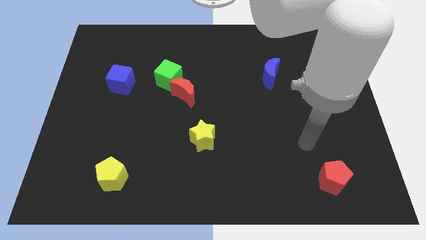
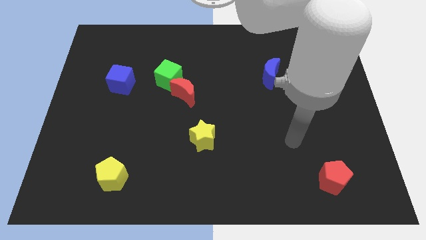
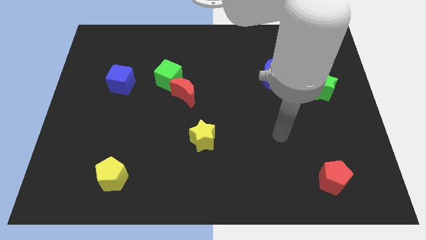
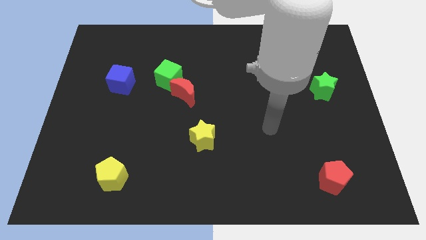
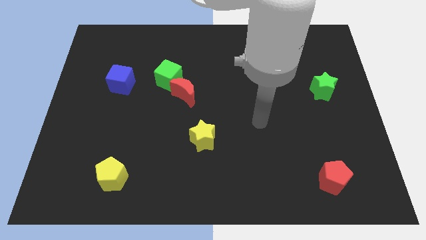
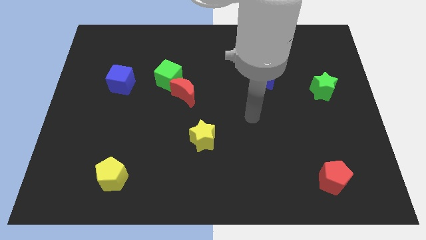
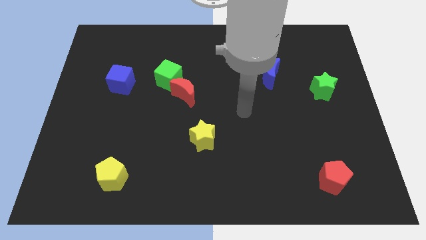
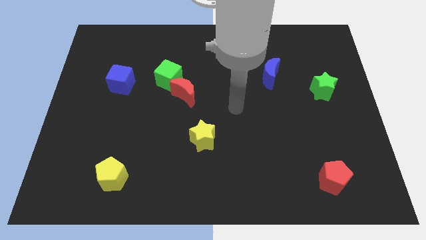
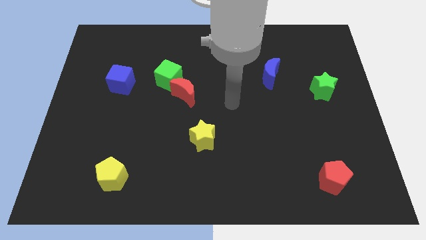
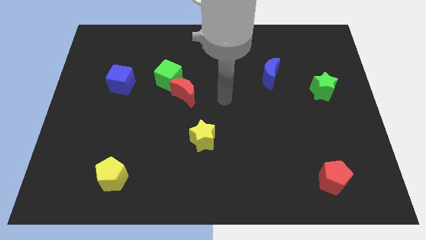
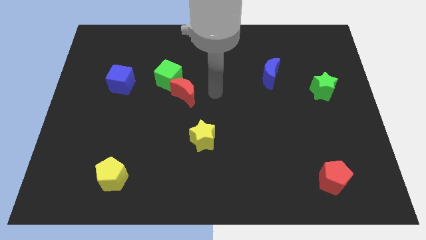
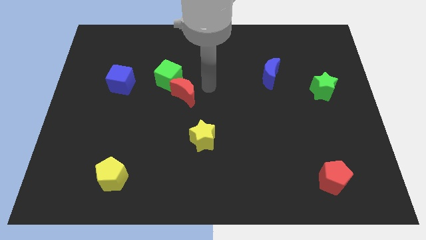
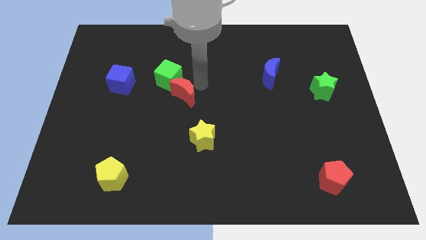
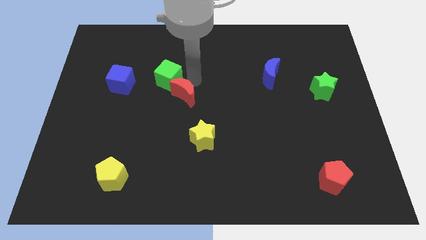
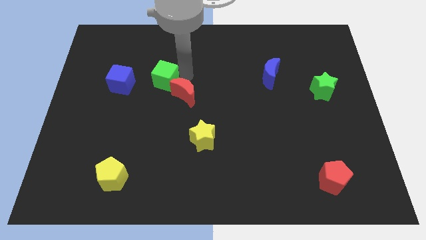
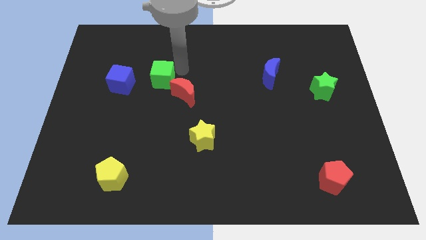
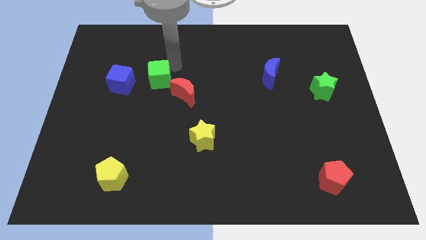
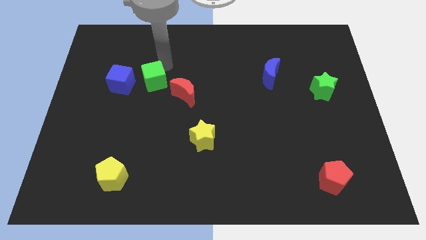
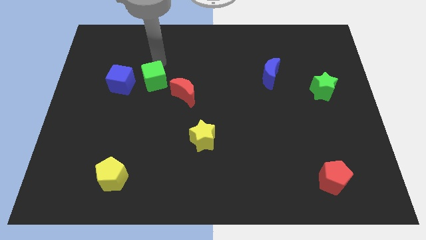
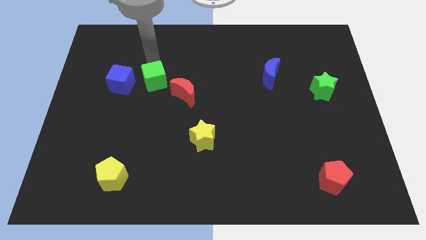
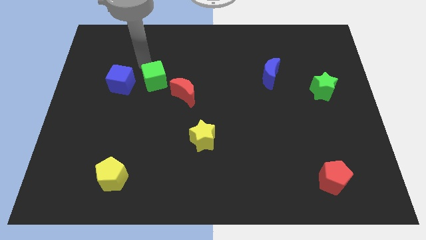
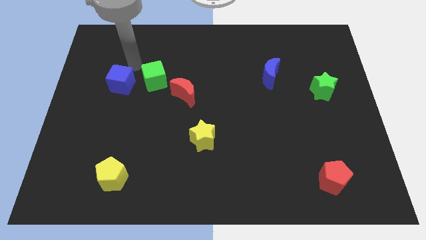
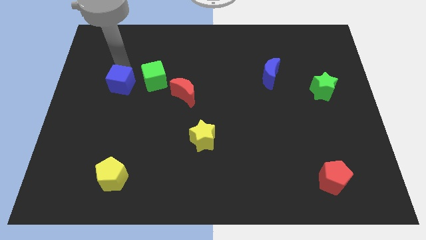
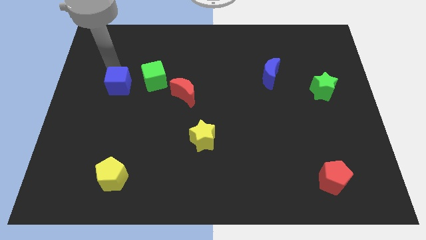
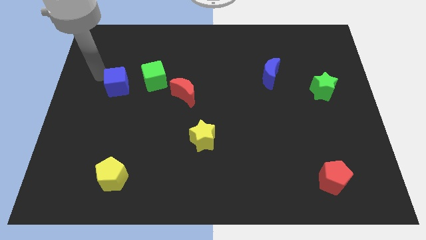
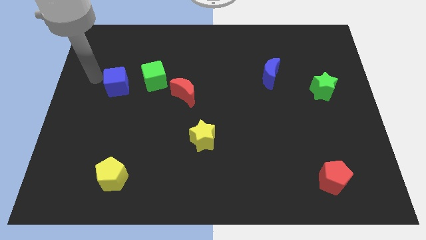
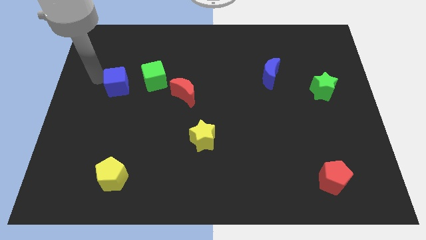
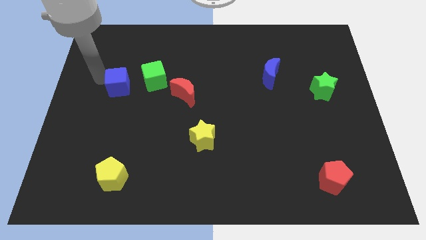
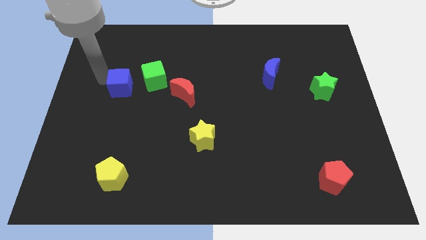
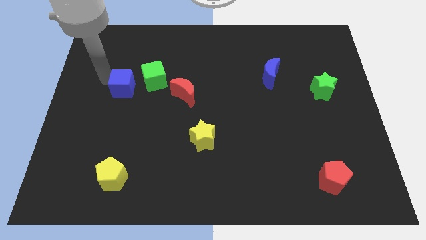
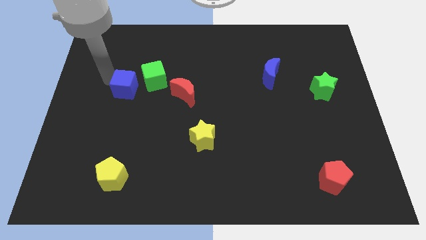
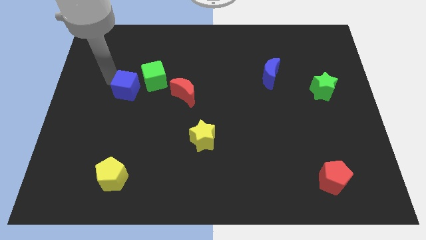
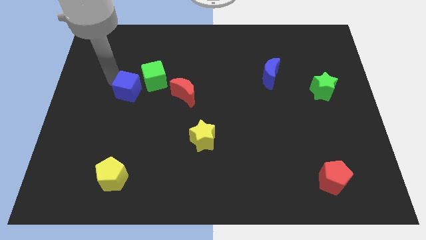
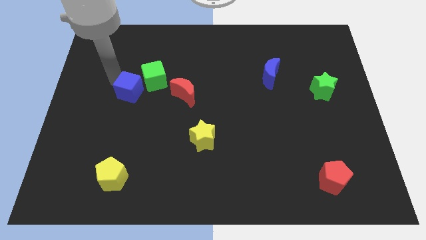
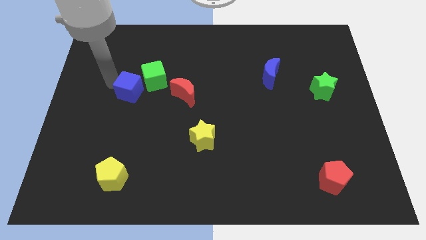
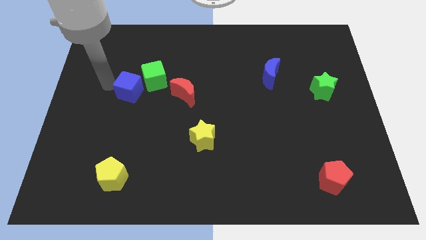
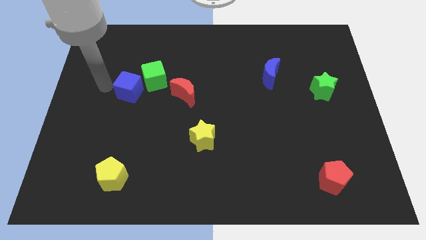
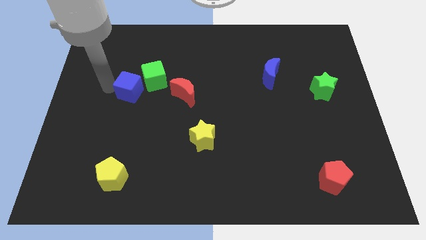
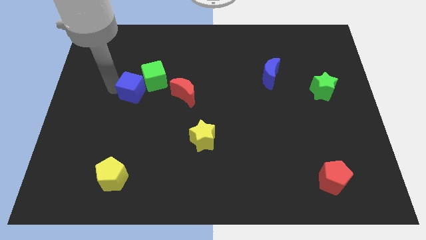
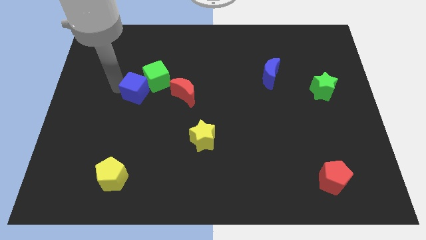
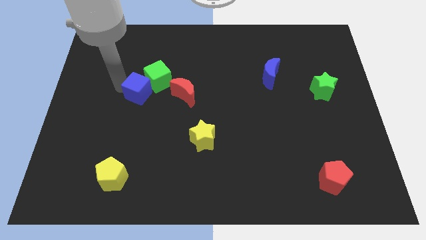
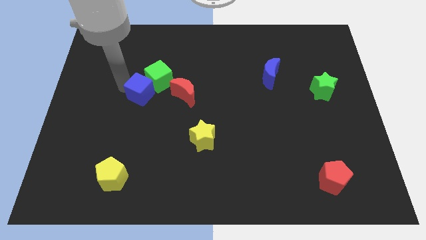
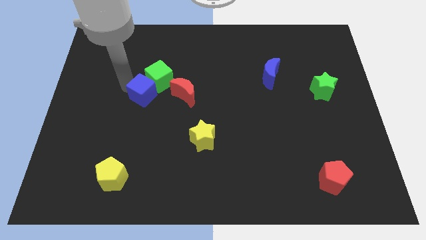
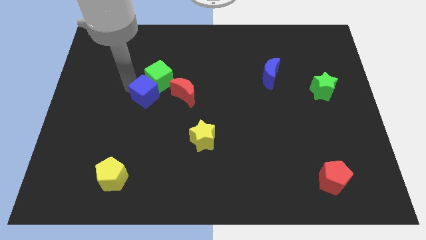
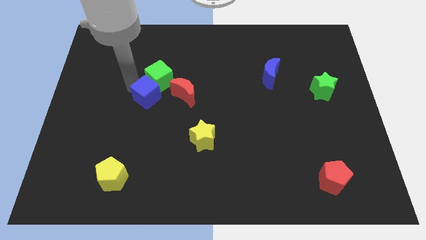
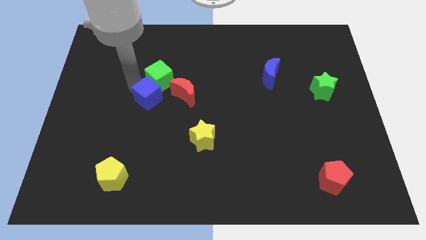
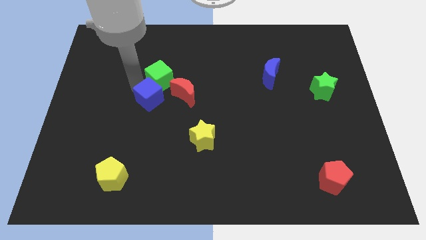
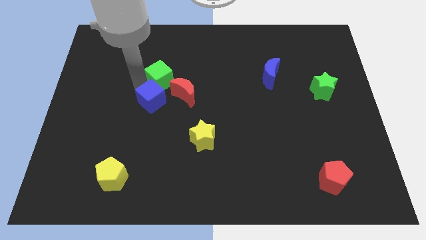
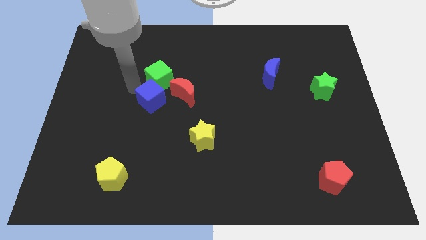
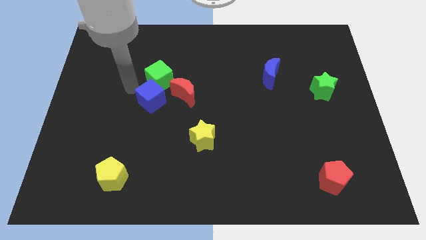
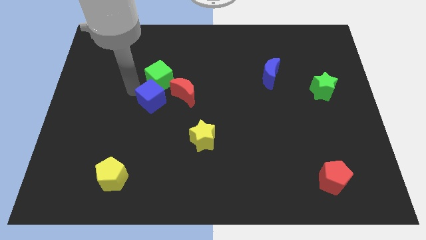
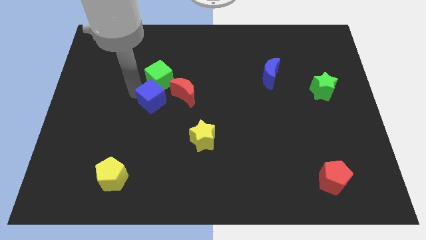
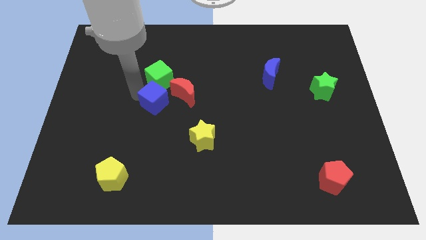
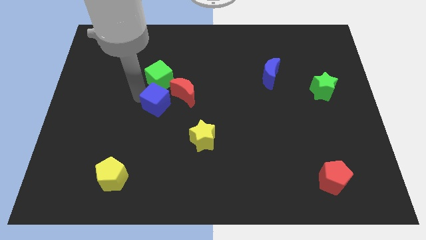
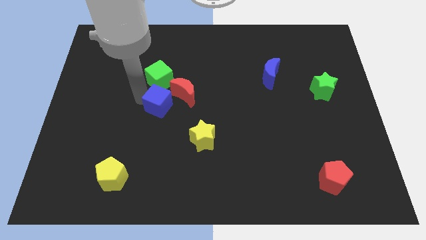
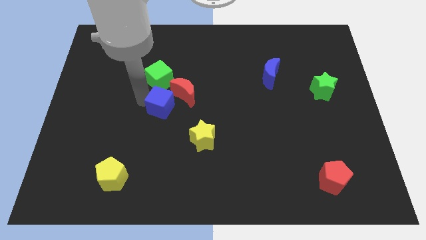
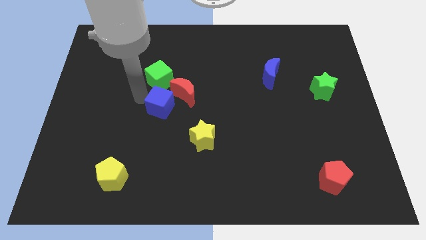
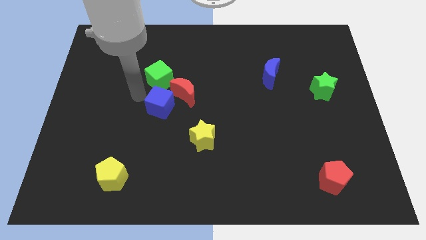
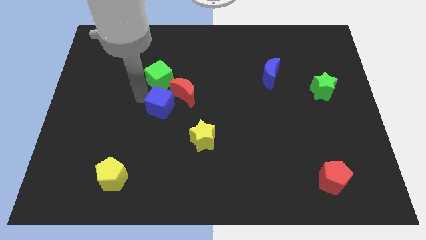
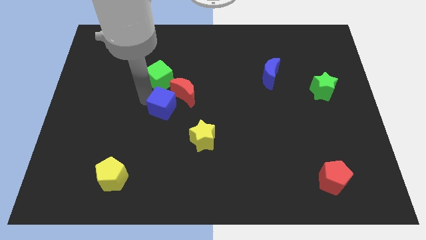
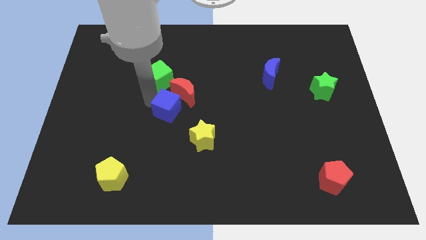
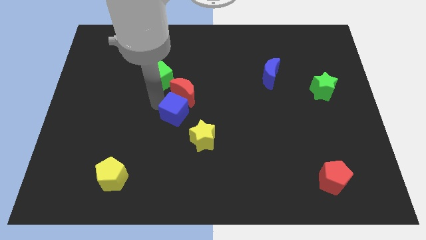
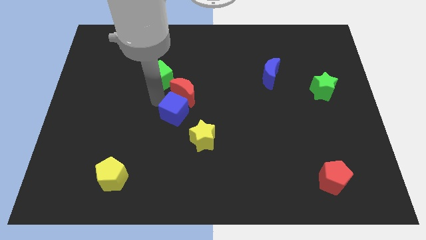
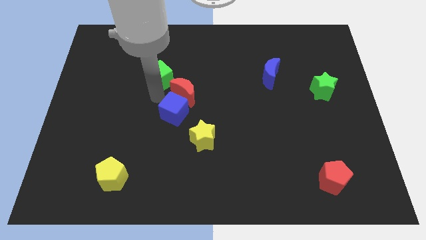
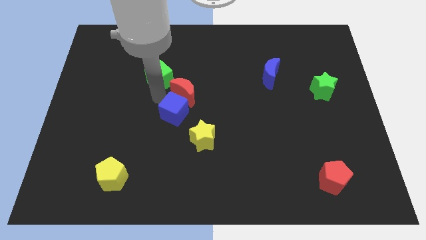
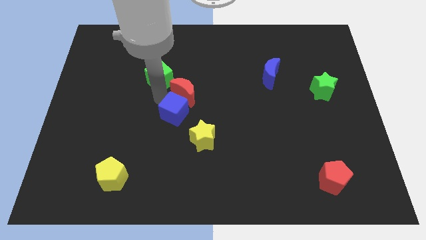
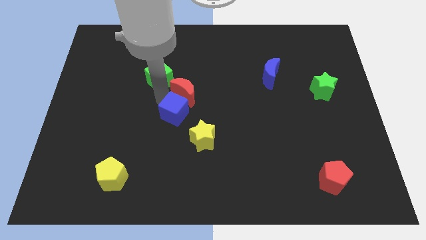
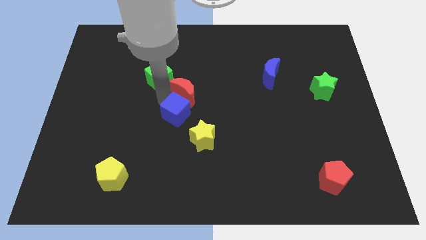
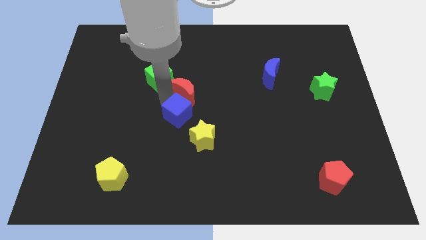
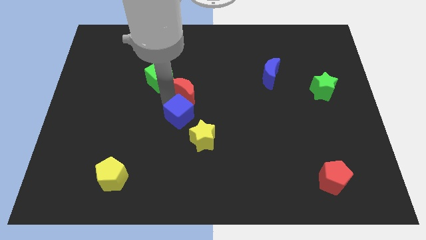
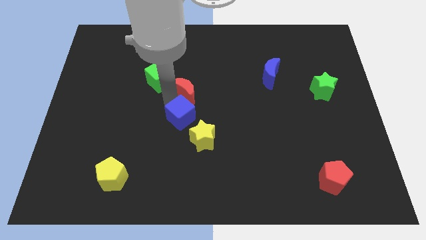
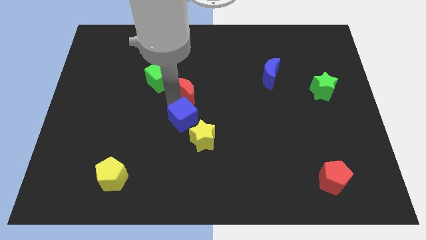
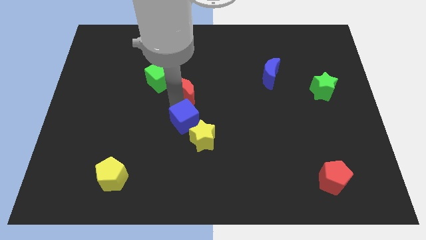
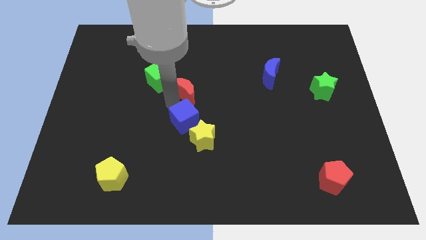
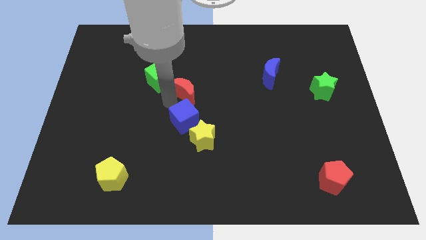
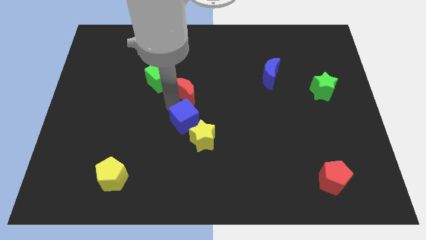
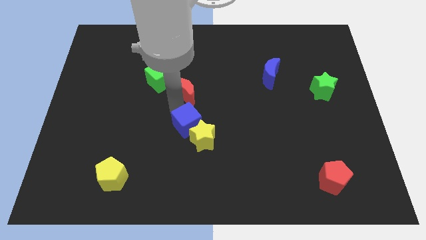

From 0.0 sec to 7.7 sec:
push the blue cube towards the yellow star
